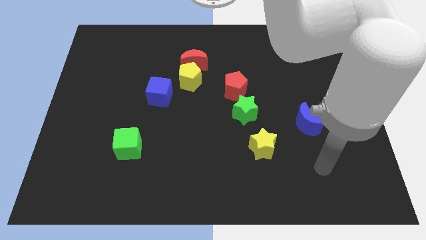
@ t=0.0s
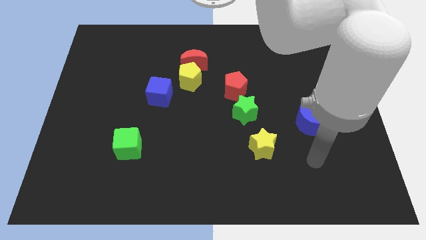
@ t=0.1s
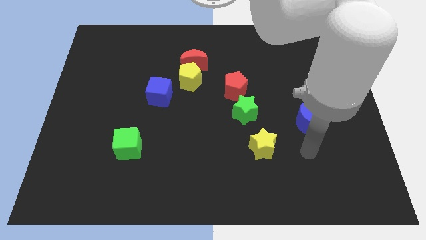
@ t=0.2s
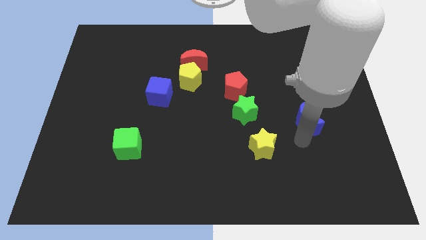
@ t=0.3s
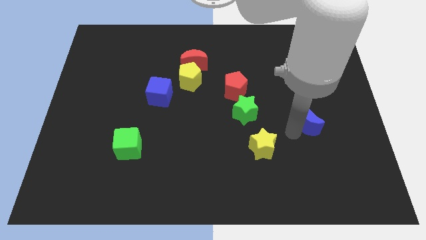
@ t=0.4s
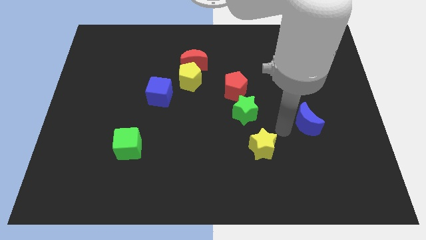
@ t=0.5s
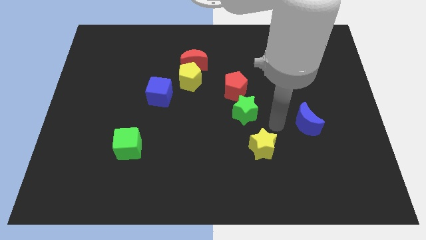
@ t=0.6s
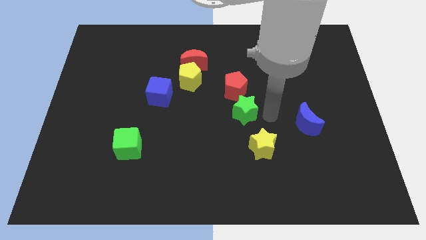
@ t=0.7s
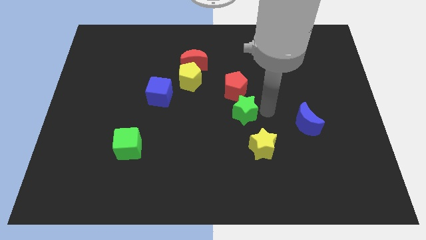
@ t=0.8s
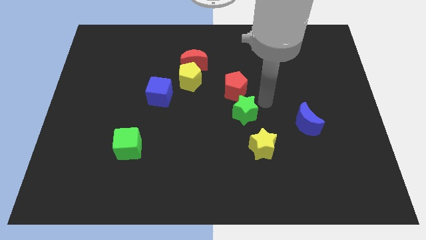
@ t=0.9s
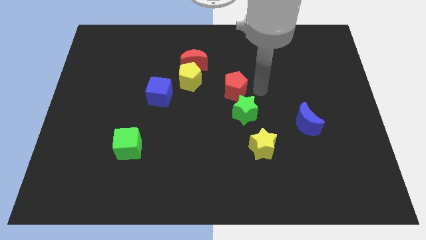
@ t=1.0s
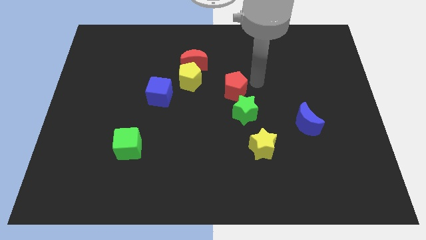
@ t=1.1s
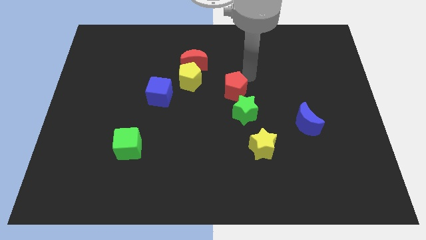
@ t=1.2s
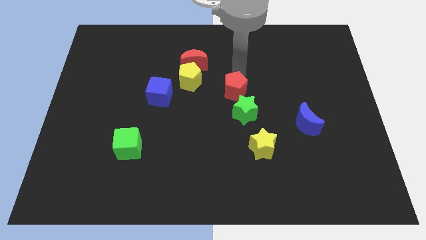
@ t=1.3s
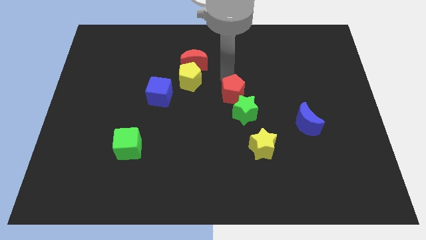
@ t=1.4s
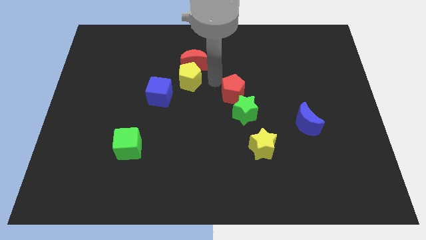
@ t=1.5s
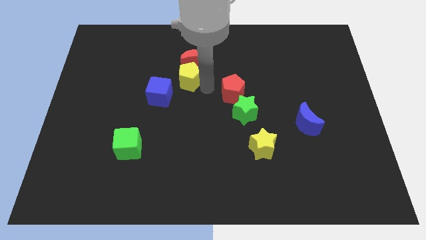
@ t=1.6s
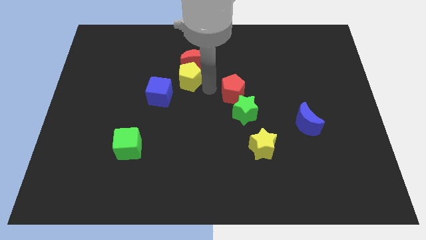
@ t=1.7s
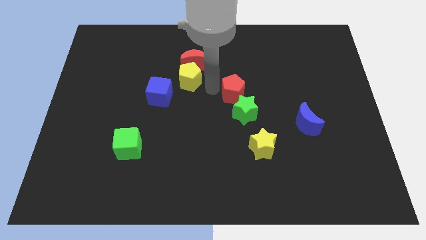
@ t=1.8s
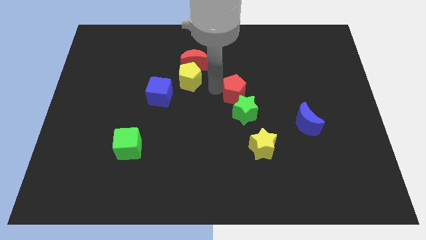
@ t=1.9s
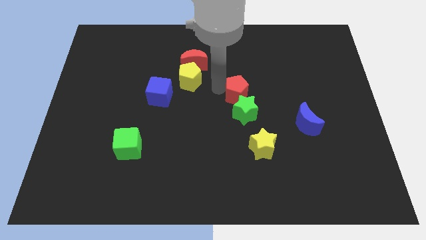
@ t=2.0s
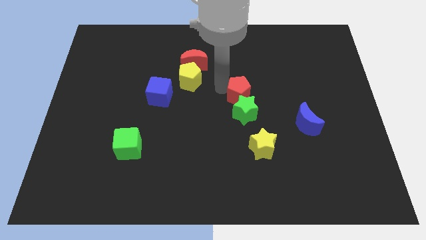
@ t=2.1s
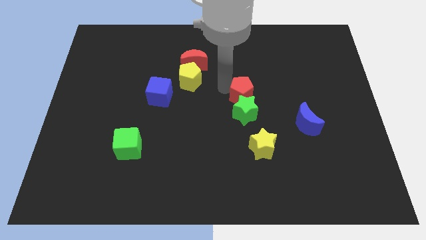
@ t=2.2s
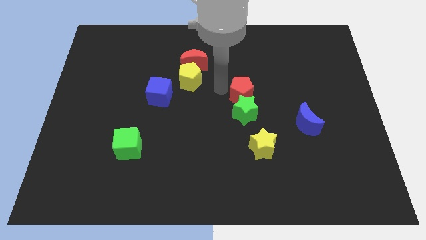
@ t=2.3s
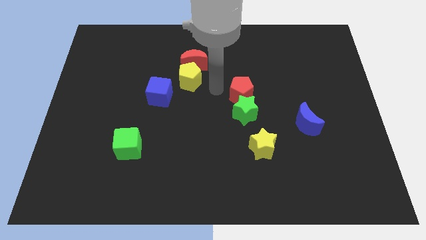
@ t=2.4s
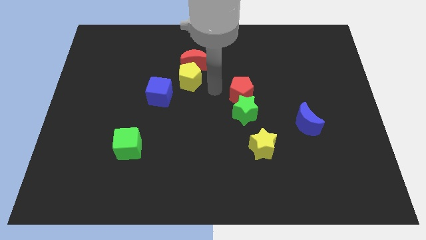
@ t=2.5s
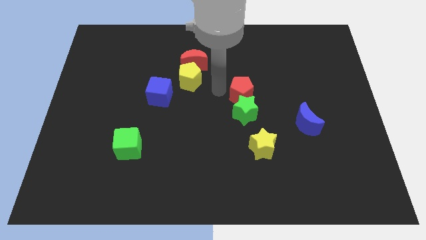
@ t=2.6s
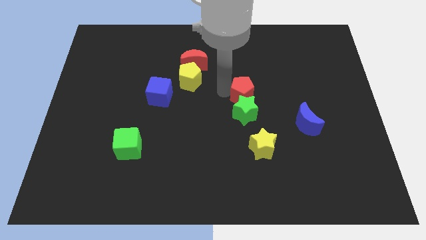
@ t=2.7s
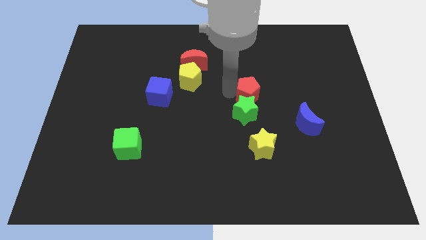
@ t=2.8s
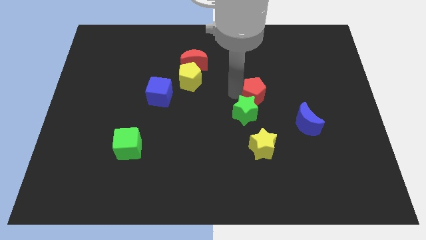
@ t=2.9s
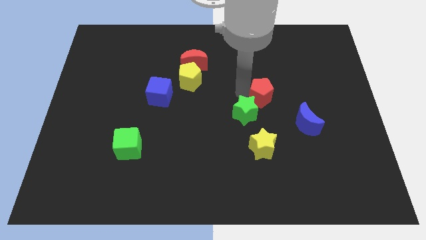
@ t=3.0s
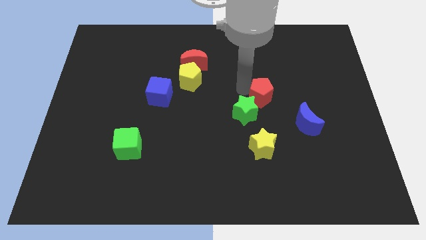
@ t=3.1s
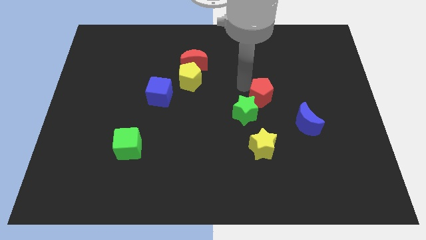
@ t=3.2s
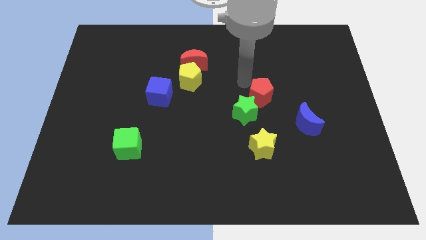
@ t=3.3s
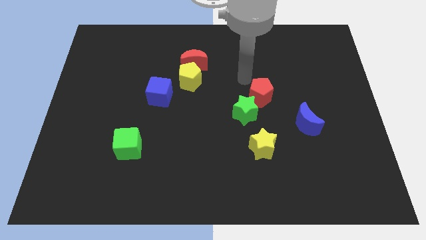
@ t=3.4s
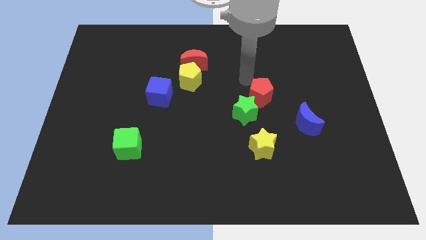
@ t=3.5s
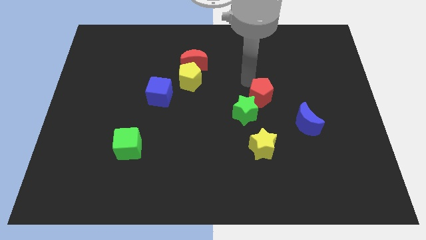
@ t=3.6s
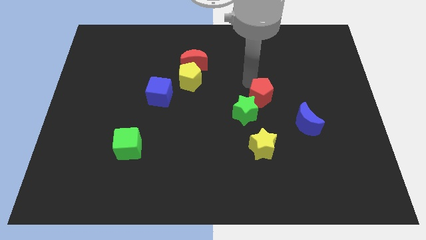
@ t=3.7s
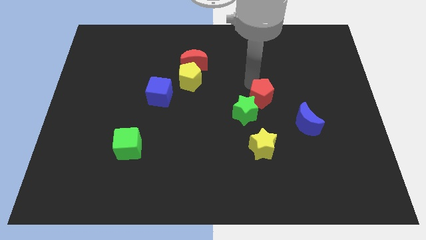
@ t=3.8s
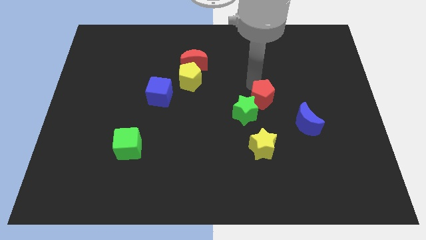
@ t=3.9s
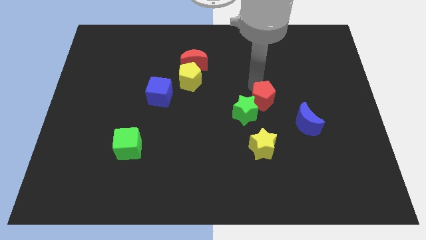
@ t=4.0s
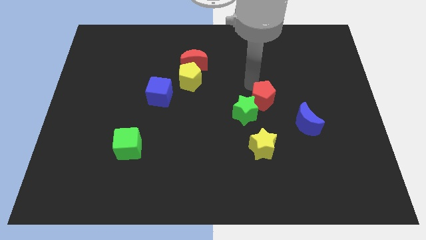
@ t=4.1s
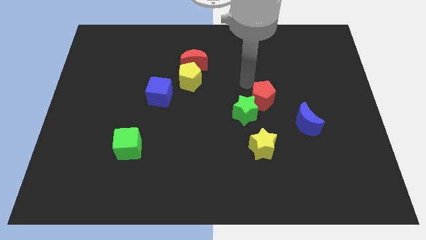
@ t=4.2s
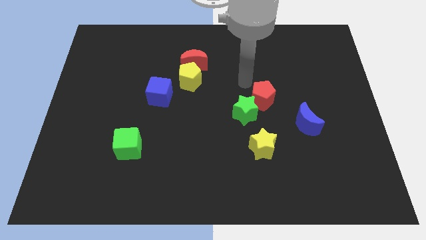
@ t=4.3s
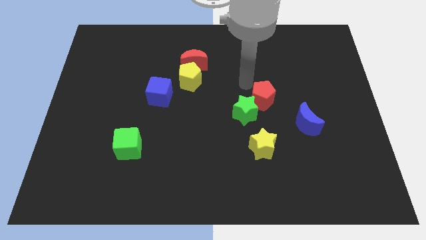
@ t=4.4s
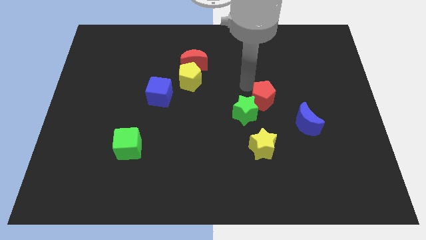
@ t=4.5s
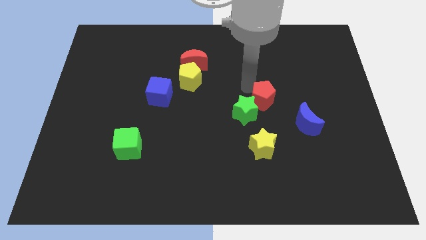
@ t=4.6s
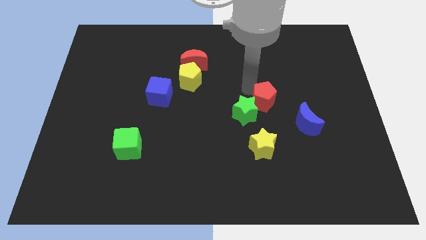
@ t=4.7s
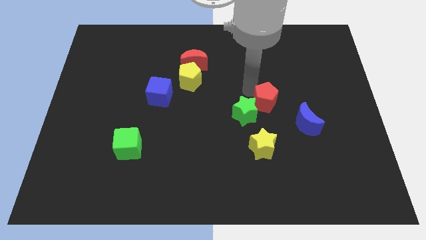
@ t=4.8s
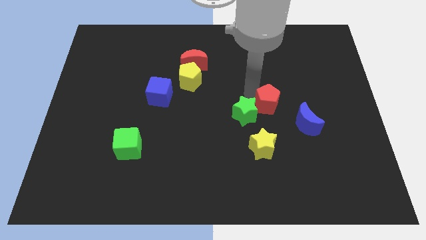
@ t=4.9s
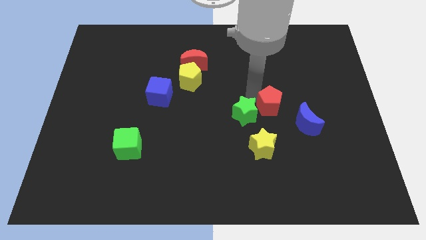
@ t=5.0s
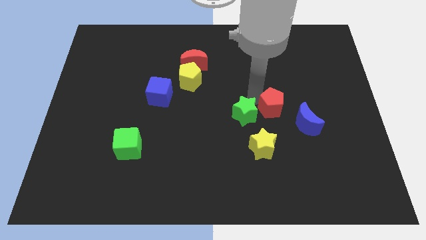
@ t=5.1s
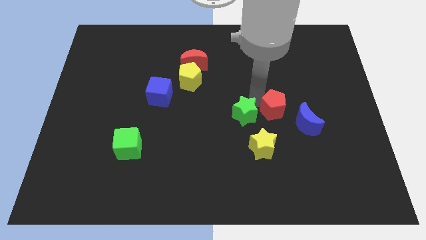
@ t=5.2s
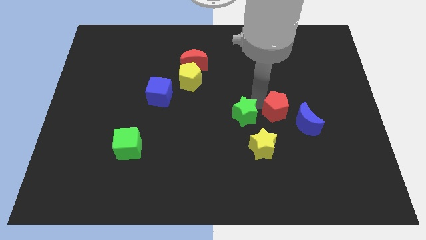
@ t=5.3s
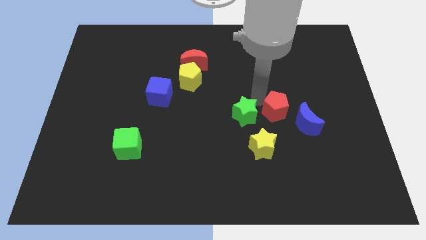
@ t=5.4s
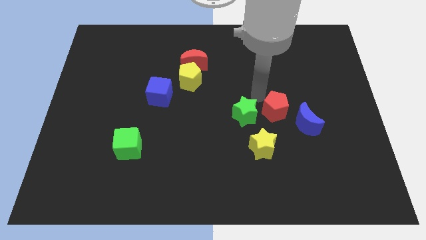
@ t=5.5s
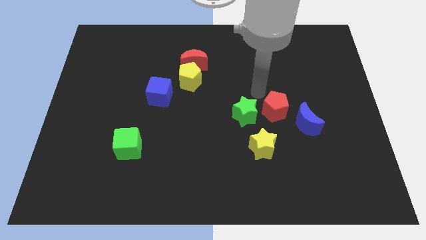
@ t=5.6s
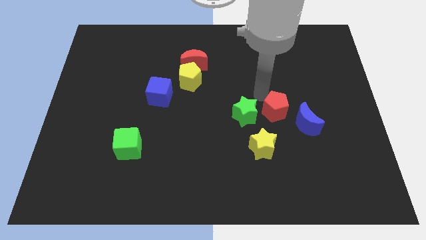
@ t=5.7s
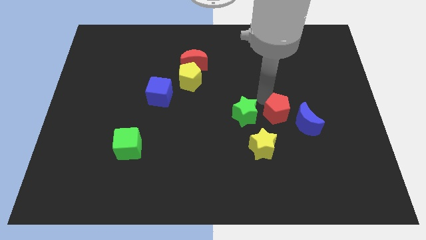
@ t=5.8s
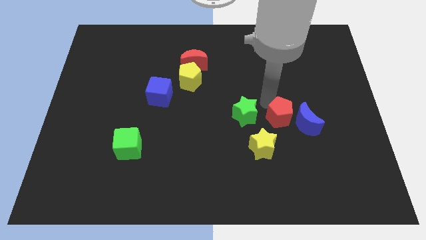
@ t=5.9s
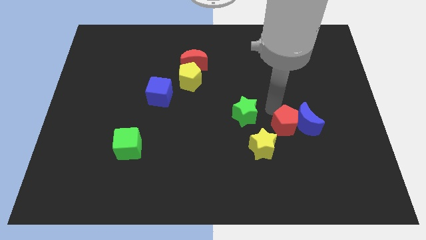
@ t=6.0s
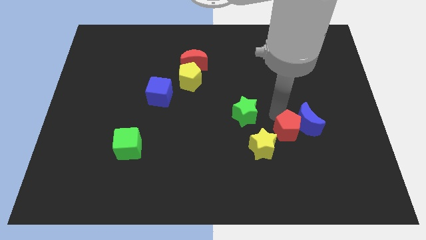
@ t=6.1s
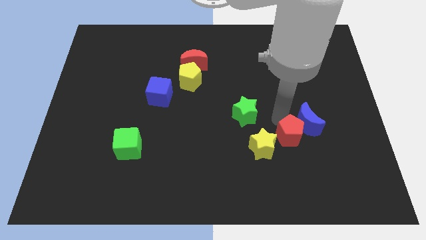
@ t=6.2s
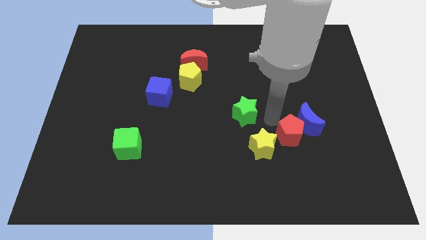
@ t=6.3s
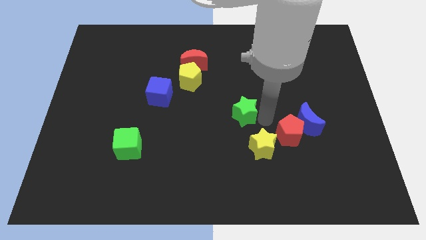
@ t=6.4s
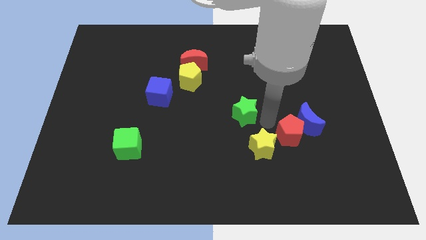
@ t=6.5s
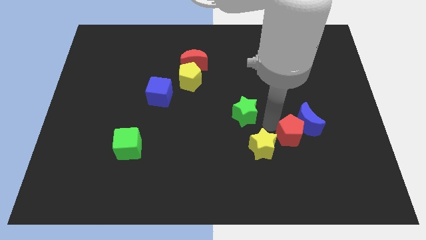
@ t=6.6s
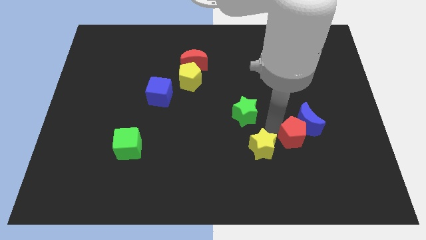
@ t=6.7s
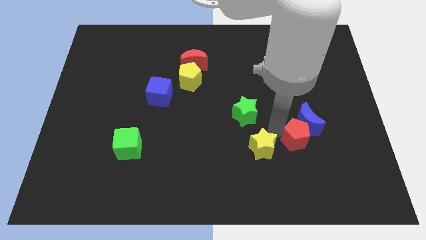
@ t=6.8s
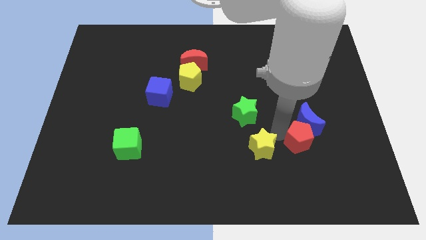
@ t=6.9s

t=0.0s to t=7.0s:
move the red pentagon diagonally down and to the right

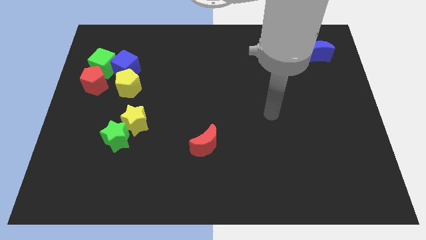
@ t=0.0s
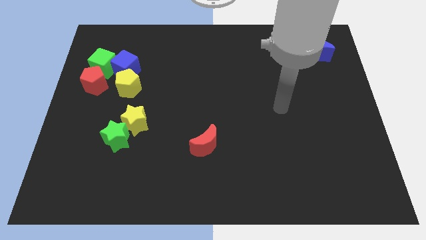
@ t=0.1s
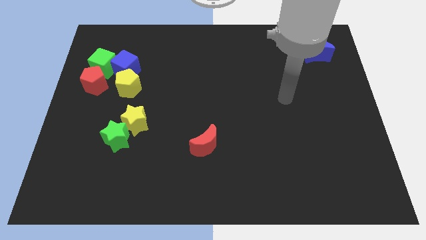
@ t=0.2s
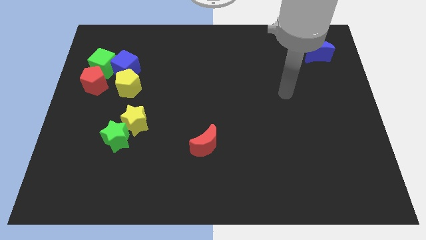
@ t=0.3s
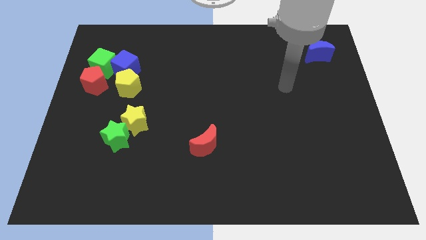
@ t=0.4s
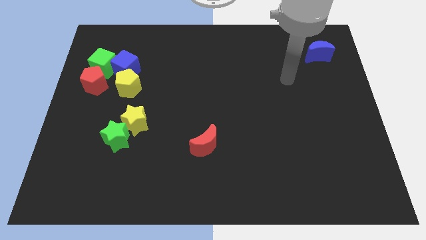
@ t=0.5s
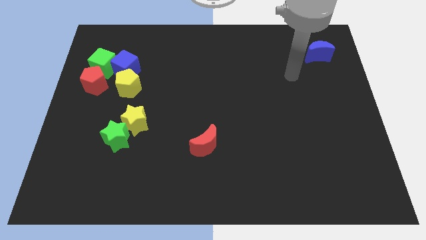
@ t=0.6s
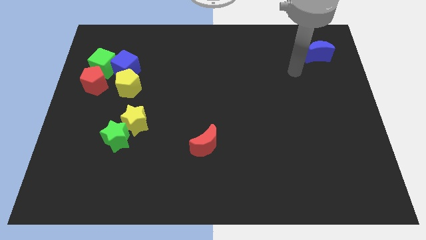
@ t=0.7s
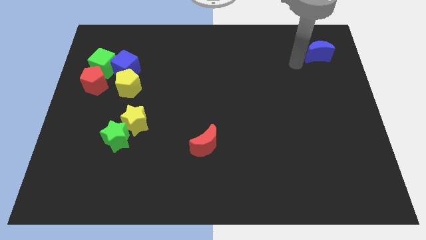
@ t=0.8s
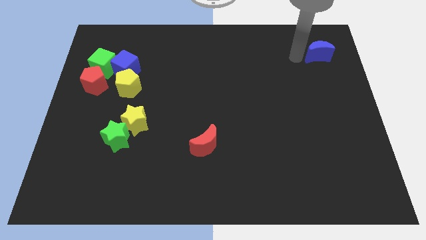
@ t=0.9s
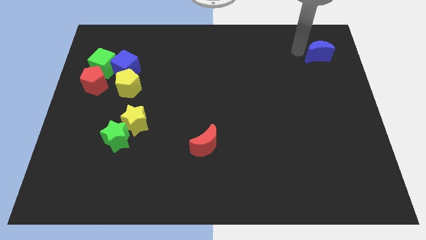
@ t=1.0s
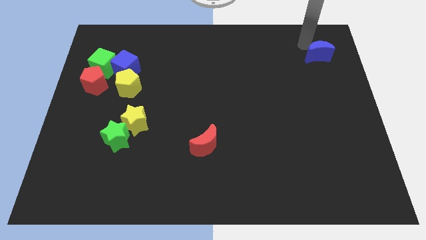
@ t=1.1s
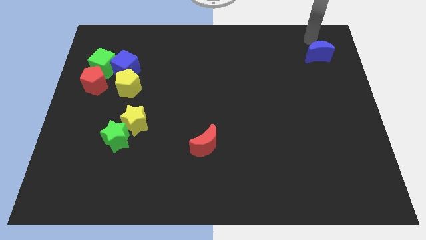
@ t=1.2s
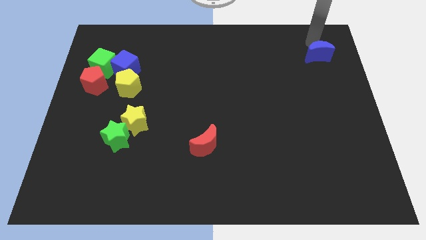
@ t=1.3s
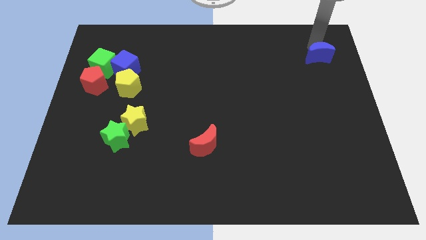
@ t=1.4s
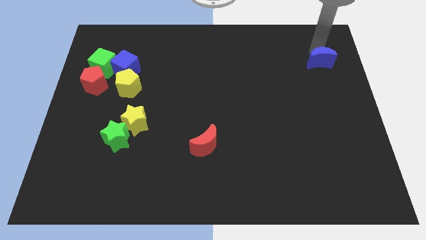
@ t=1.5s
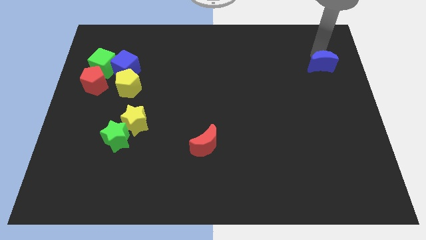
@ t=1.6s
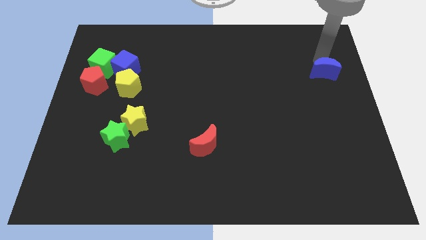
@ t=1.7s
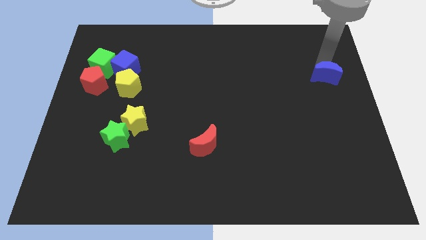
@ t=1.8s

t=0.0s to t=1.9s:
slightly move the blue moon downwards
